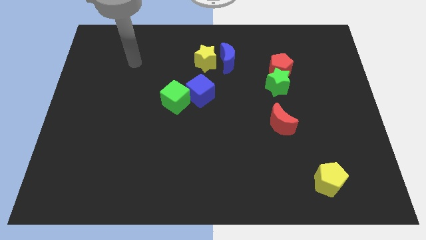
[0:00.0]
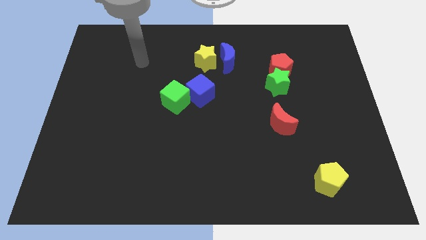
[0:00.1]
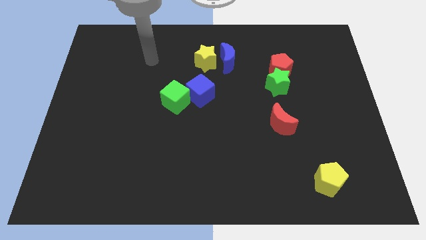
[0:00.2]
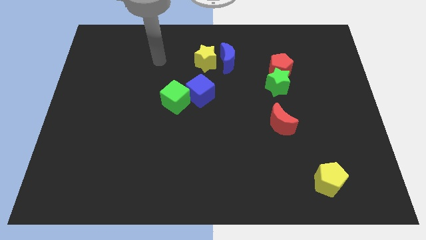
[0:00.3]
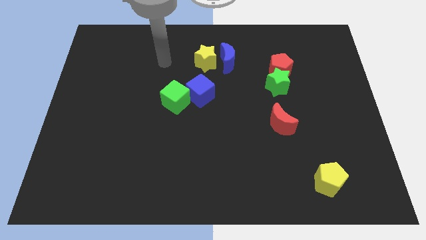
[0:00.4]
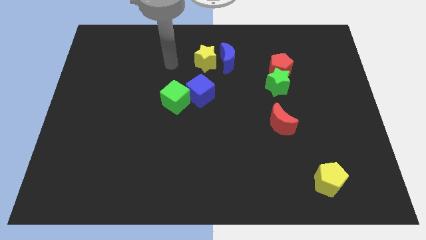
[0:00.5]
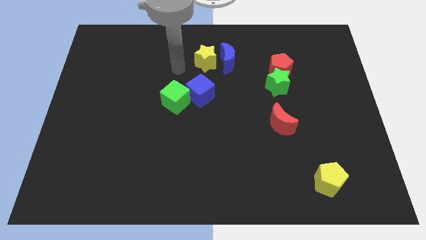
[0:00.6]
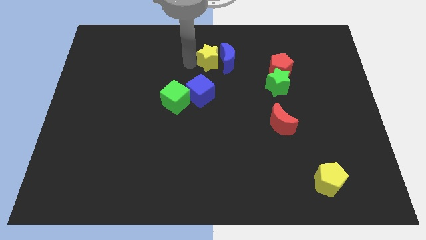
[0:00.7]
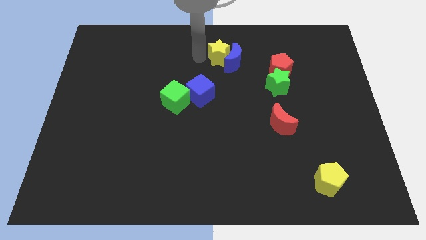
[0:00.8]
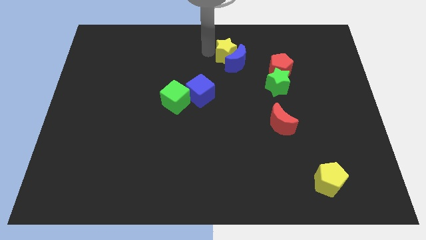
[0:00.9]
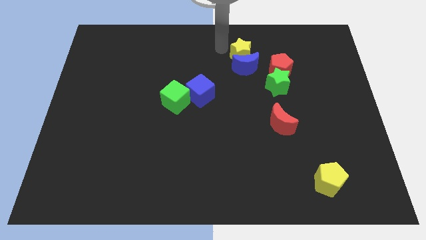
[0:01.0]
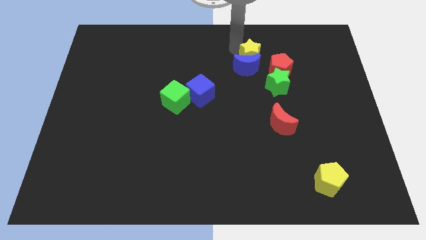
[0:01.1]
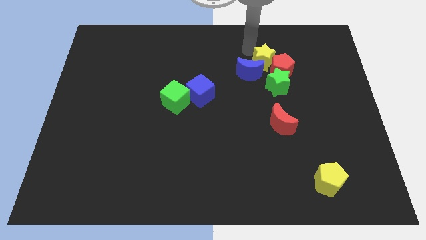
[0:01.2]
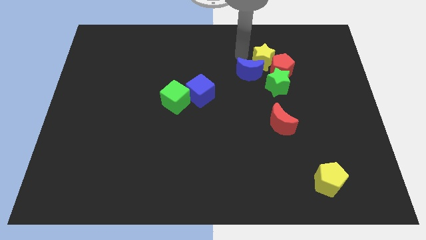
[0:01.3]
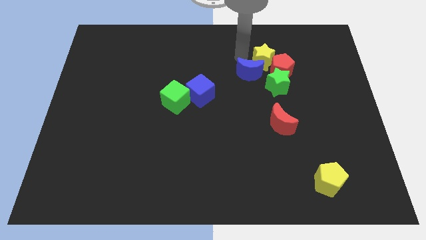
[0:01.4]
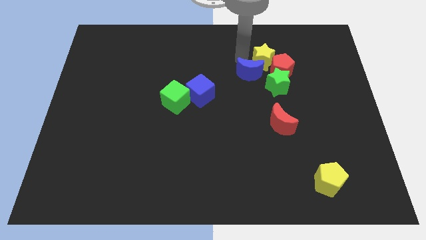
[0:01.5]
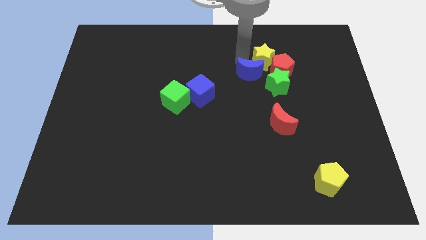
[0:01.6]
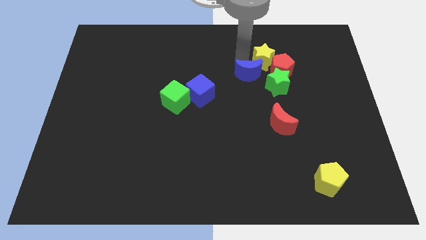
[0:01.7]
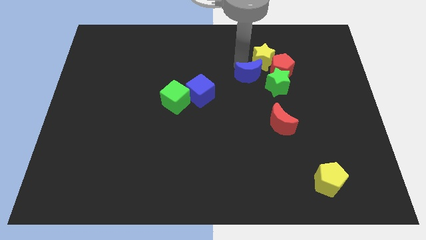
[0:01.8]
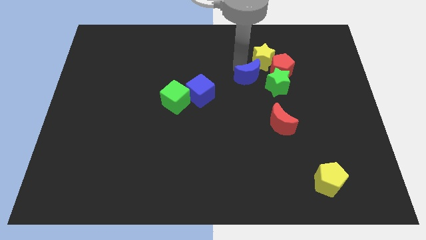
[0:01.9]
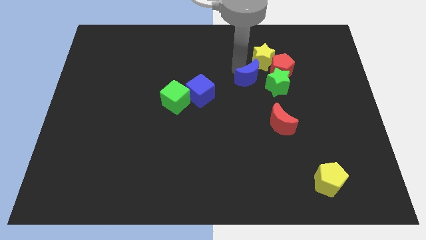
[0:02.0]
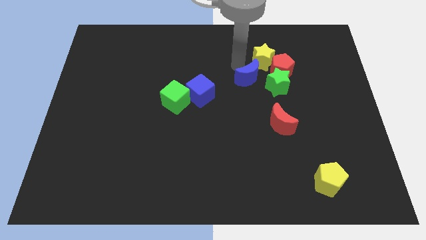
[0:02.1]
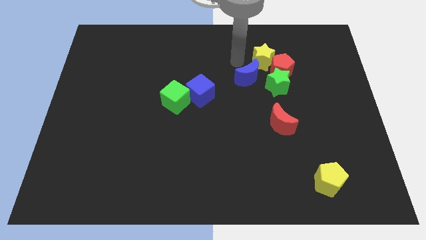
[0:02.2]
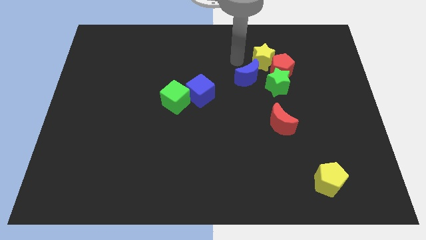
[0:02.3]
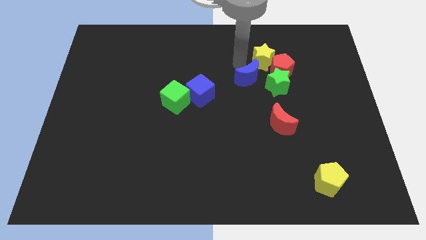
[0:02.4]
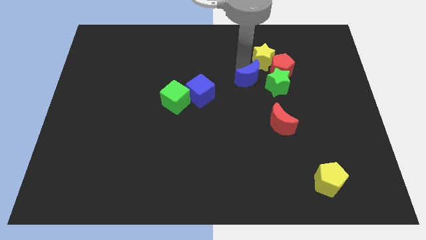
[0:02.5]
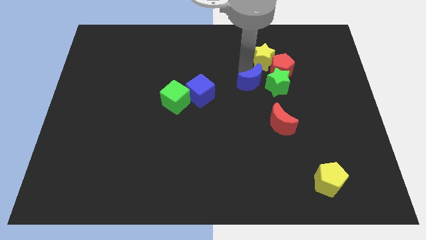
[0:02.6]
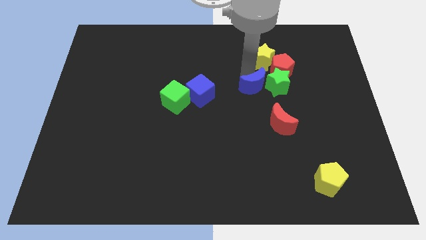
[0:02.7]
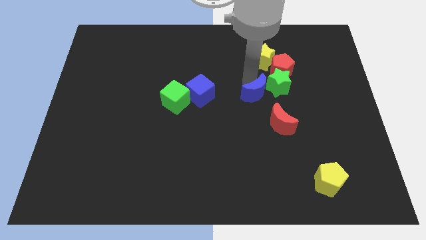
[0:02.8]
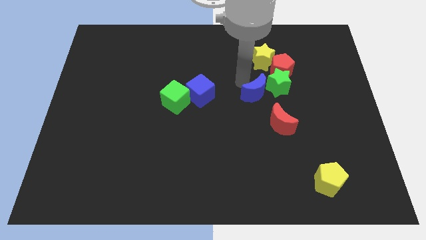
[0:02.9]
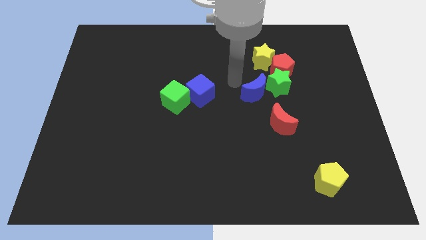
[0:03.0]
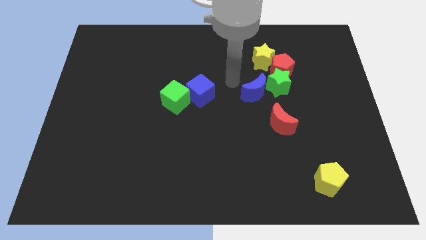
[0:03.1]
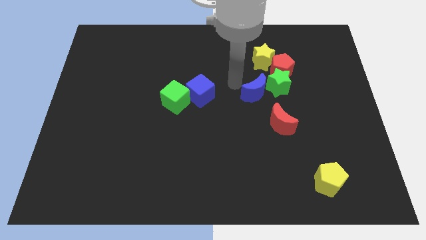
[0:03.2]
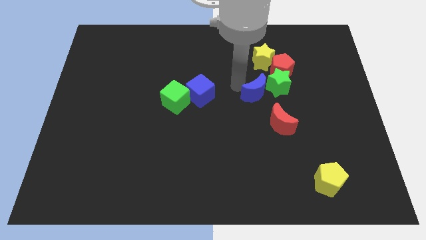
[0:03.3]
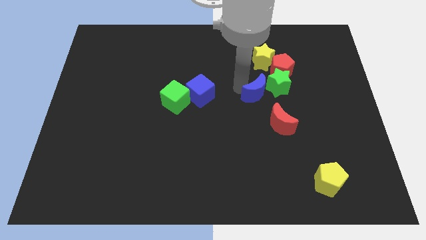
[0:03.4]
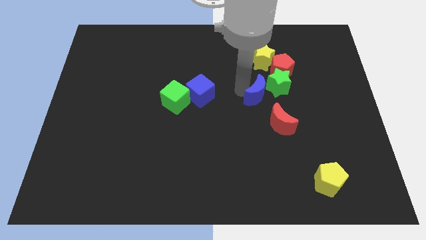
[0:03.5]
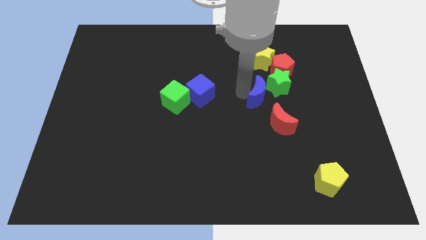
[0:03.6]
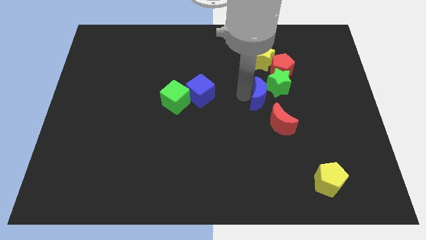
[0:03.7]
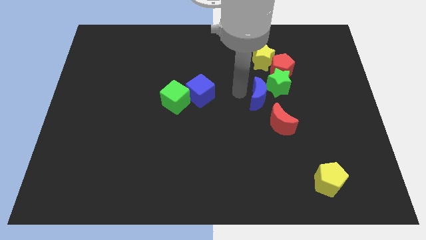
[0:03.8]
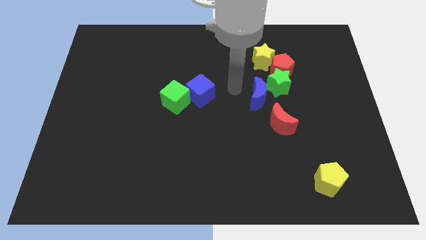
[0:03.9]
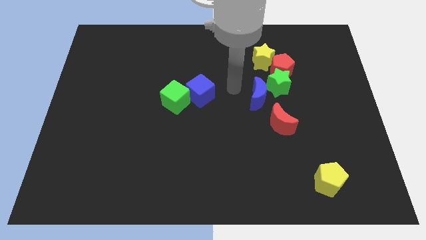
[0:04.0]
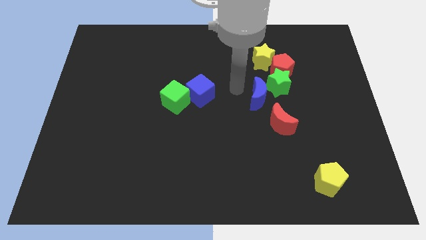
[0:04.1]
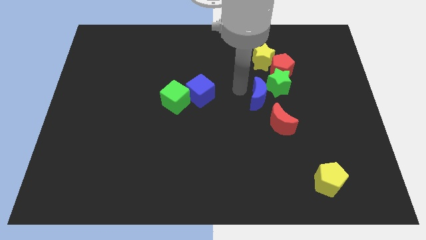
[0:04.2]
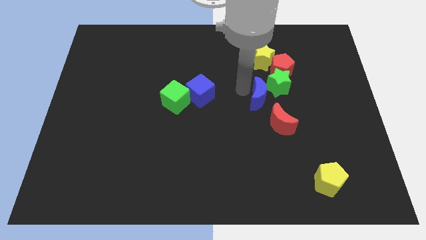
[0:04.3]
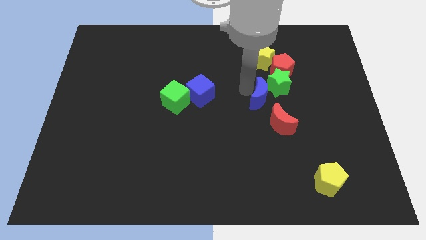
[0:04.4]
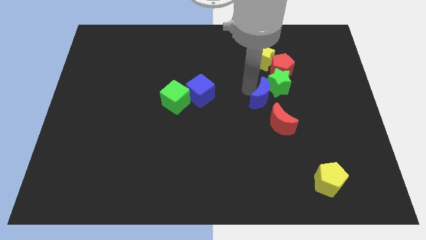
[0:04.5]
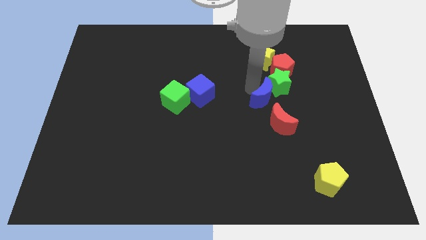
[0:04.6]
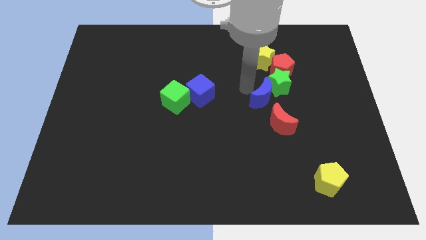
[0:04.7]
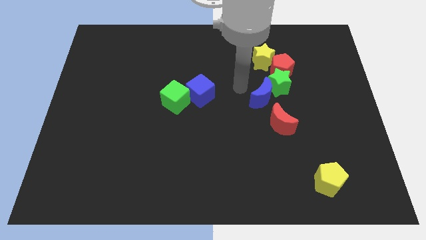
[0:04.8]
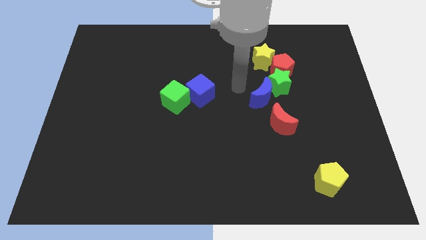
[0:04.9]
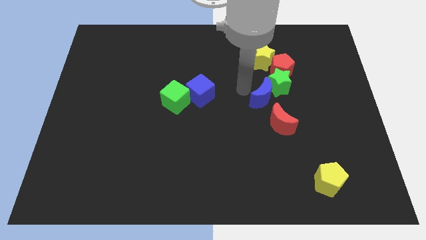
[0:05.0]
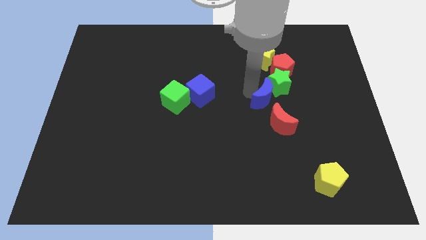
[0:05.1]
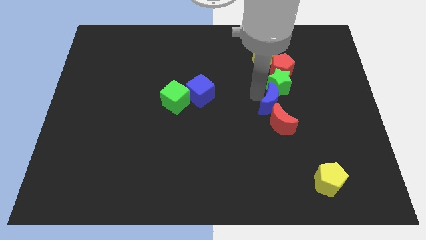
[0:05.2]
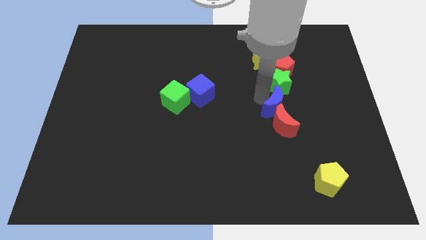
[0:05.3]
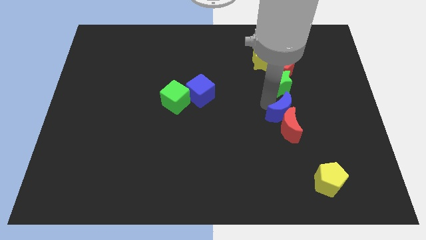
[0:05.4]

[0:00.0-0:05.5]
slide the blue moon down and to the right diagonally

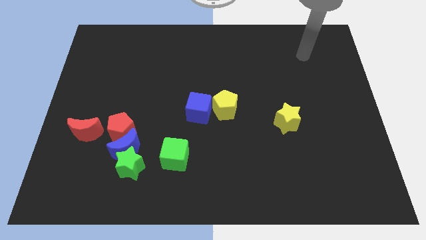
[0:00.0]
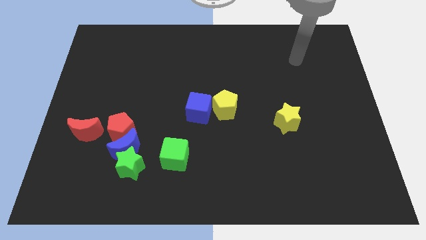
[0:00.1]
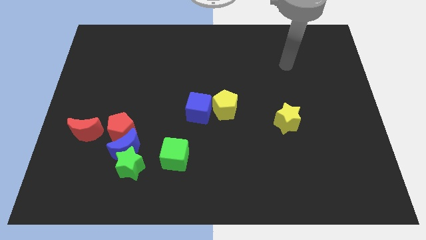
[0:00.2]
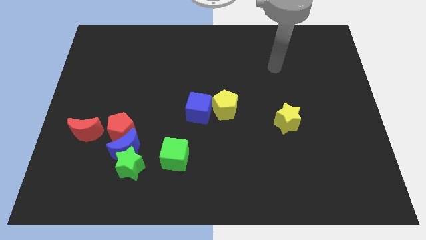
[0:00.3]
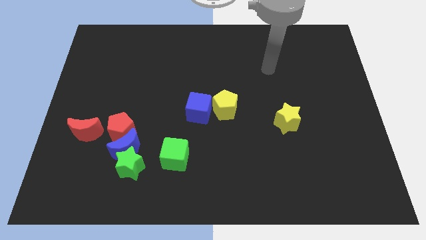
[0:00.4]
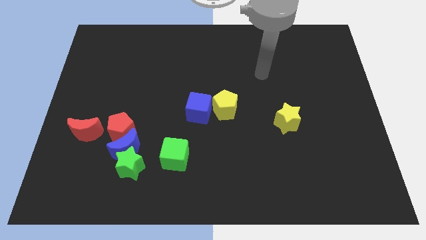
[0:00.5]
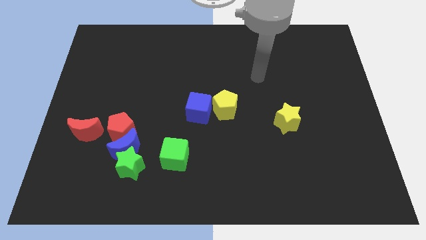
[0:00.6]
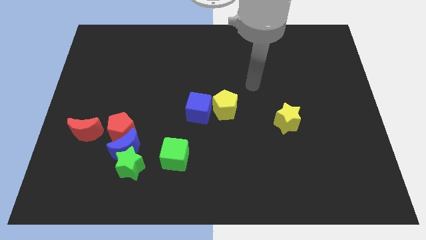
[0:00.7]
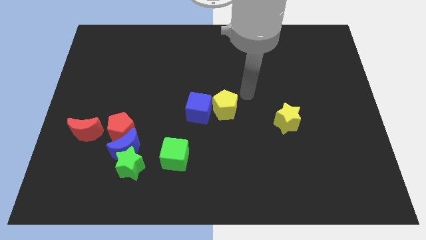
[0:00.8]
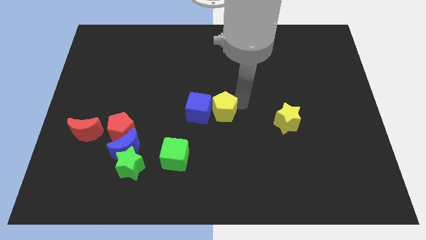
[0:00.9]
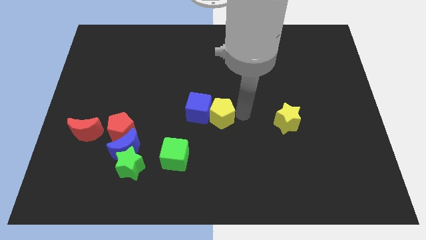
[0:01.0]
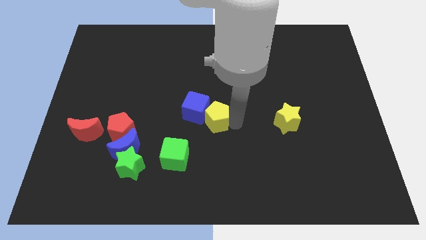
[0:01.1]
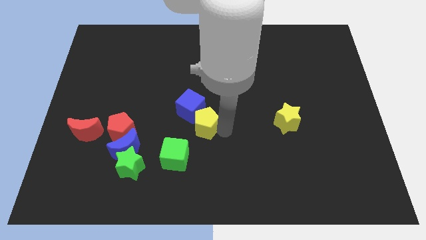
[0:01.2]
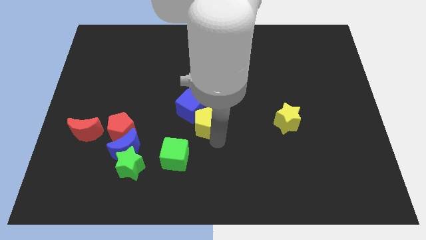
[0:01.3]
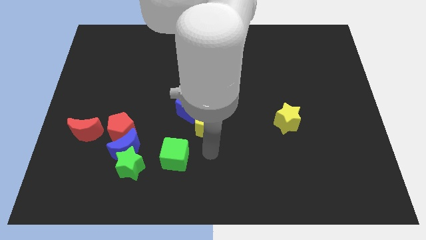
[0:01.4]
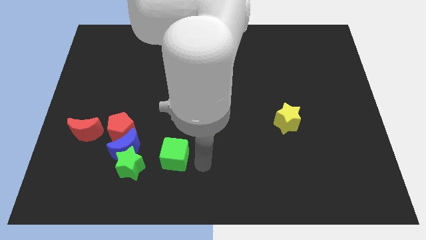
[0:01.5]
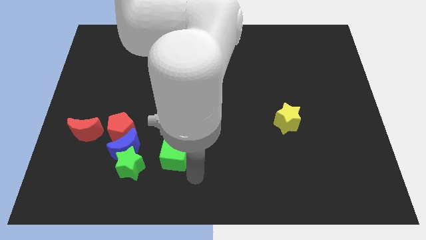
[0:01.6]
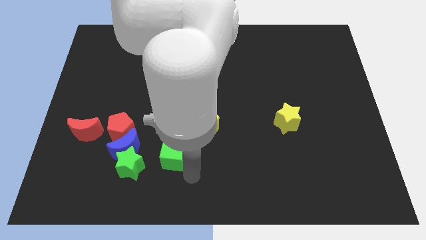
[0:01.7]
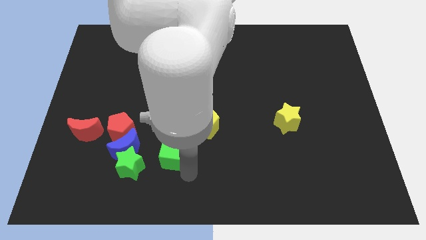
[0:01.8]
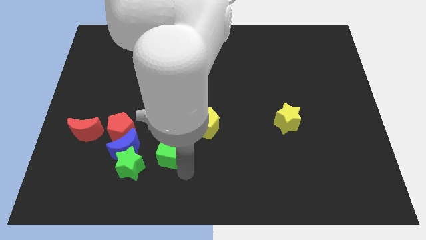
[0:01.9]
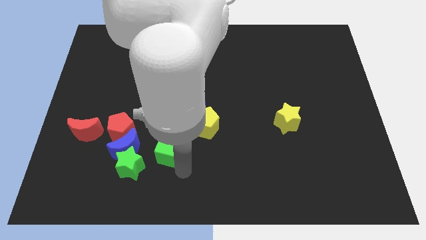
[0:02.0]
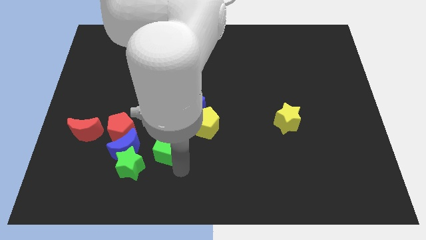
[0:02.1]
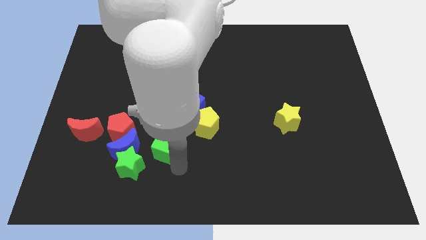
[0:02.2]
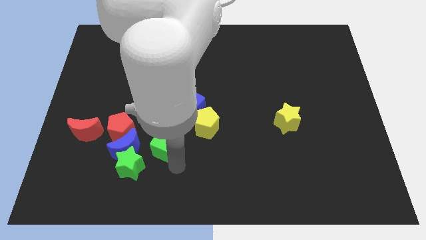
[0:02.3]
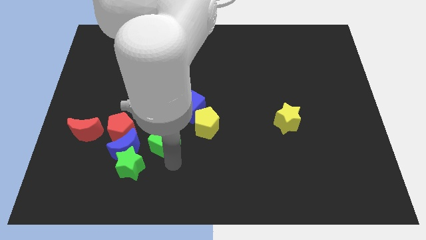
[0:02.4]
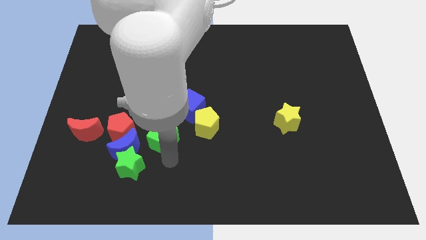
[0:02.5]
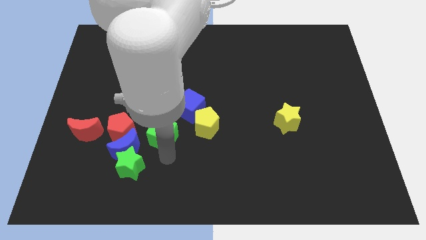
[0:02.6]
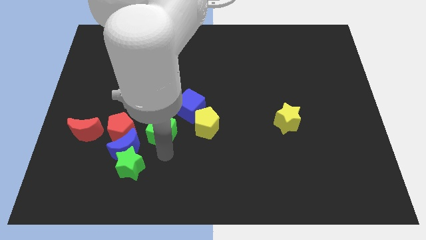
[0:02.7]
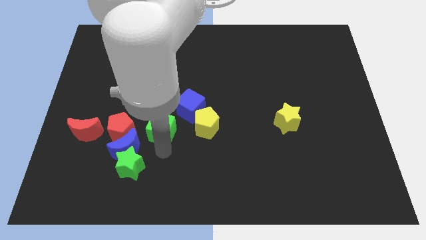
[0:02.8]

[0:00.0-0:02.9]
push the green cube diagonally up and to the left a little
